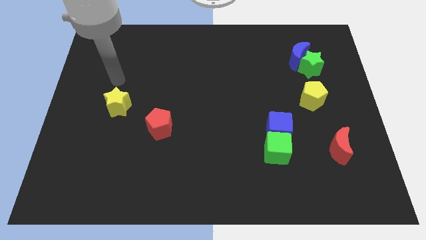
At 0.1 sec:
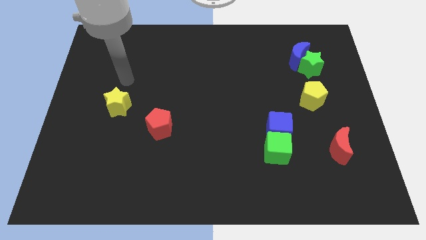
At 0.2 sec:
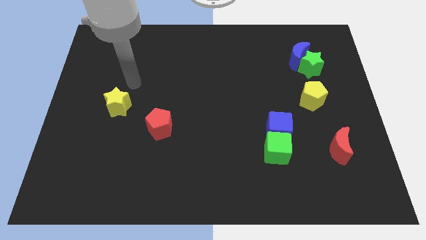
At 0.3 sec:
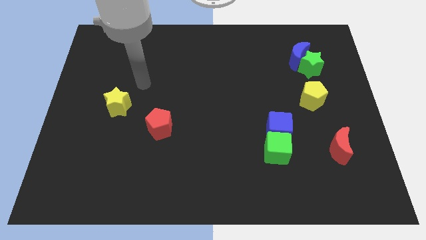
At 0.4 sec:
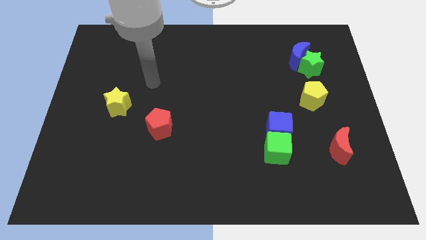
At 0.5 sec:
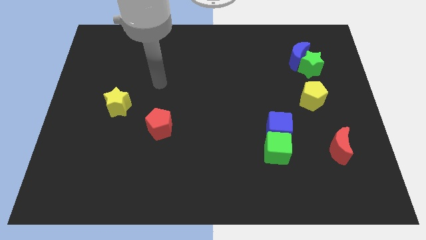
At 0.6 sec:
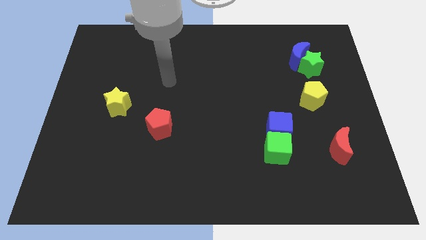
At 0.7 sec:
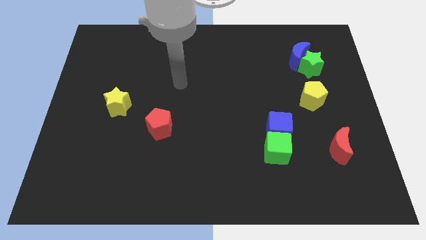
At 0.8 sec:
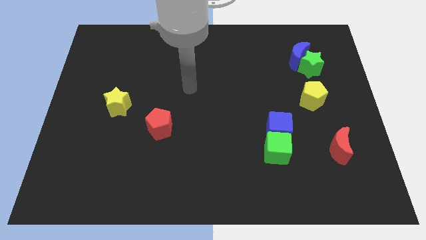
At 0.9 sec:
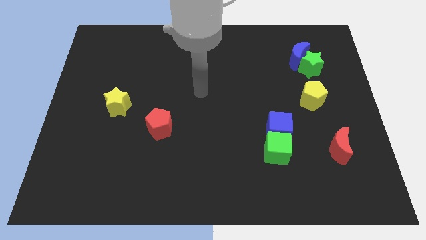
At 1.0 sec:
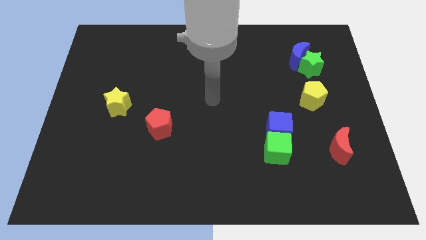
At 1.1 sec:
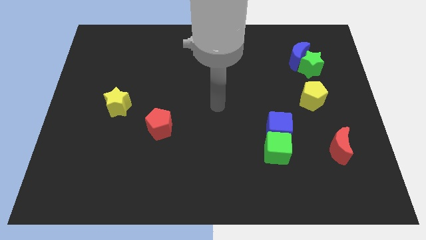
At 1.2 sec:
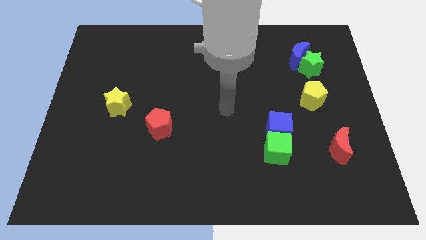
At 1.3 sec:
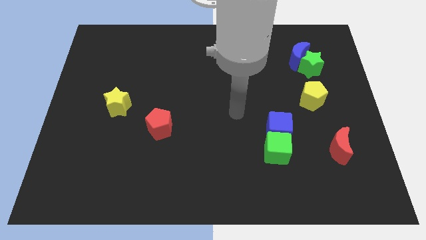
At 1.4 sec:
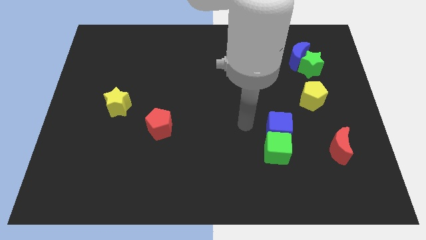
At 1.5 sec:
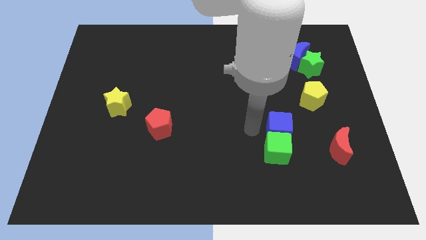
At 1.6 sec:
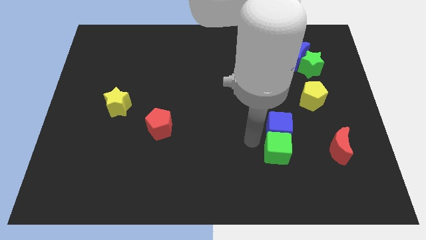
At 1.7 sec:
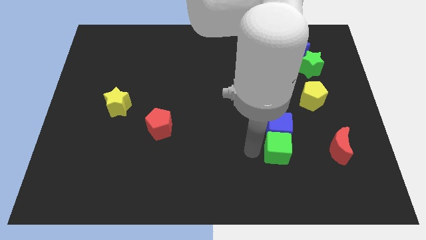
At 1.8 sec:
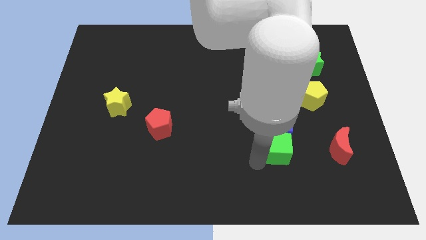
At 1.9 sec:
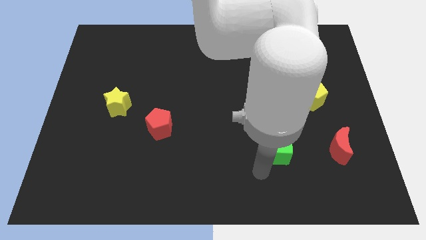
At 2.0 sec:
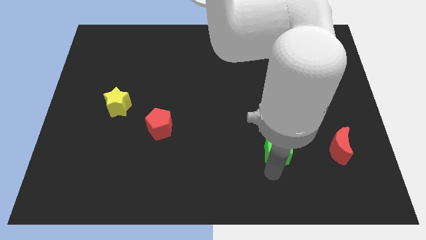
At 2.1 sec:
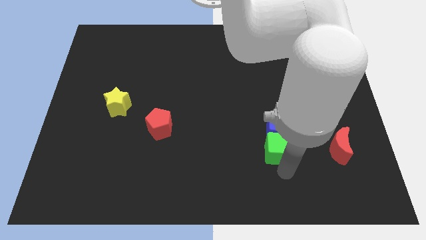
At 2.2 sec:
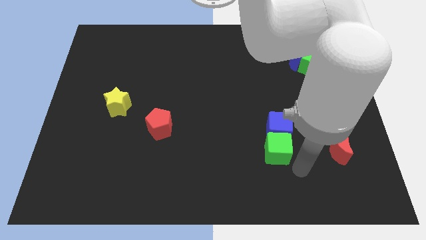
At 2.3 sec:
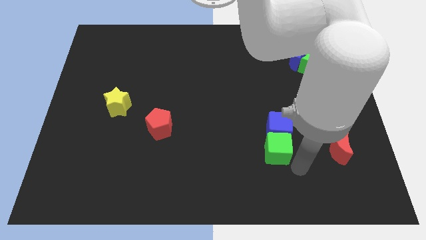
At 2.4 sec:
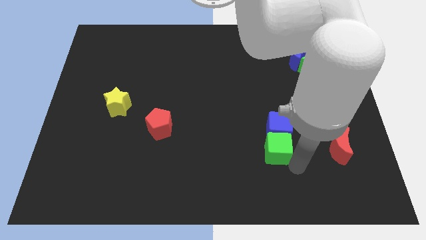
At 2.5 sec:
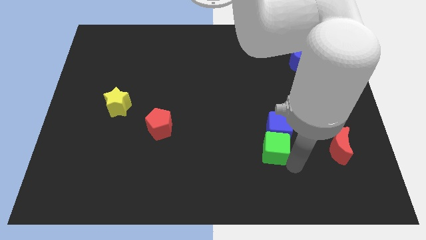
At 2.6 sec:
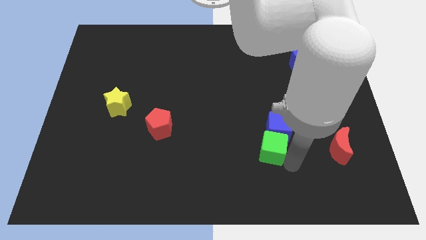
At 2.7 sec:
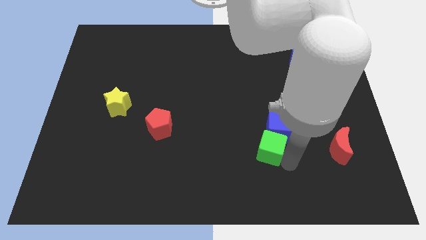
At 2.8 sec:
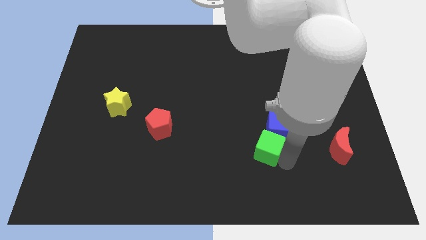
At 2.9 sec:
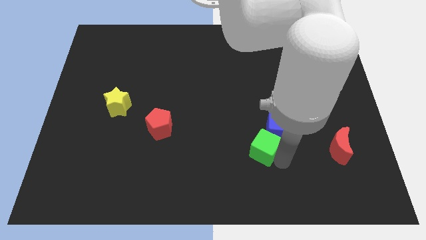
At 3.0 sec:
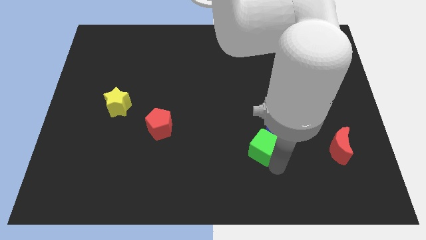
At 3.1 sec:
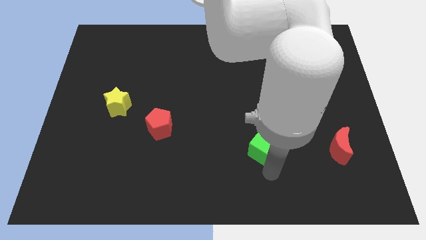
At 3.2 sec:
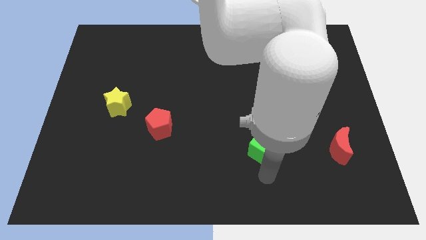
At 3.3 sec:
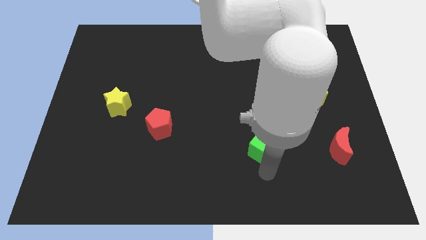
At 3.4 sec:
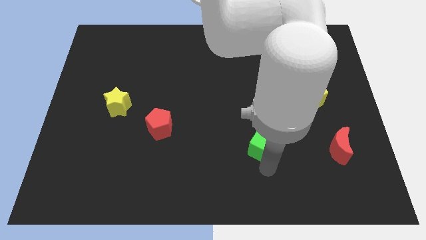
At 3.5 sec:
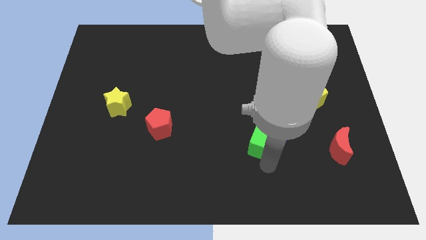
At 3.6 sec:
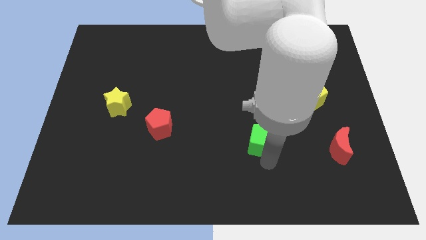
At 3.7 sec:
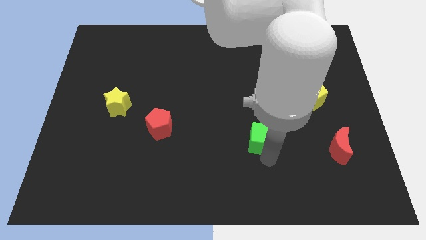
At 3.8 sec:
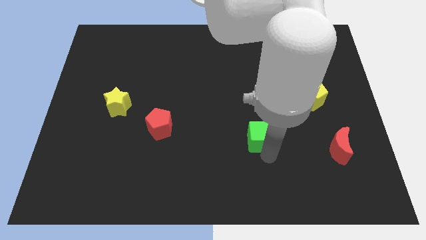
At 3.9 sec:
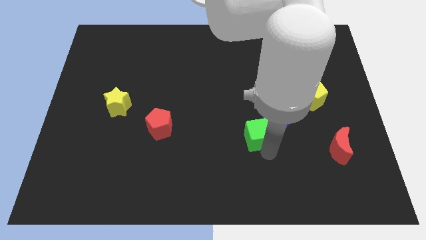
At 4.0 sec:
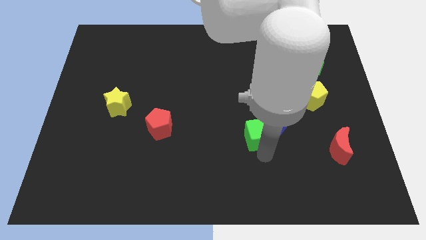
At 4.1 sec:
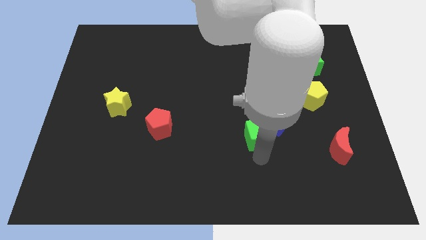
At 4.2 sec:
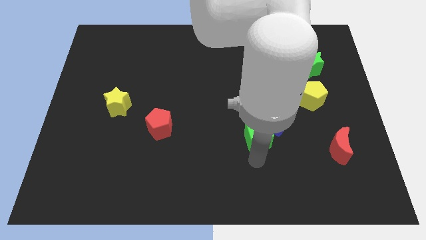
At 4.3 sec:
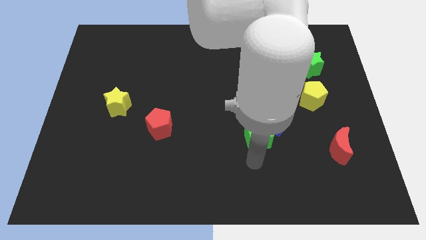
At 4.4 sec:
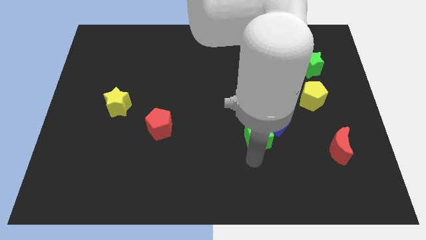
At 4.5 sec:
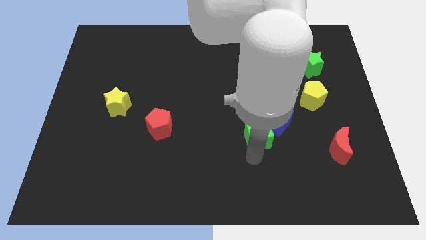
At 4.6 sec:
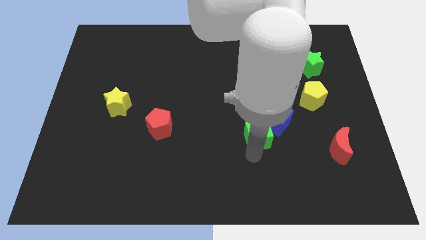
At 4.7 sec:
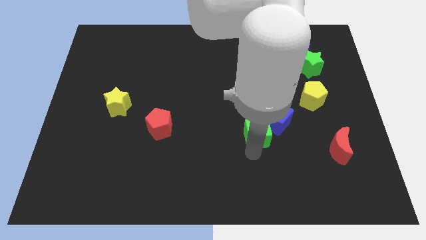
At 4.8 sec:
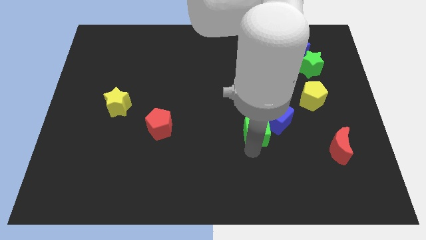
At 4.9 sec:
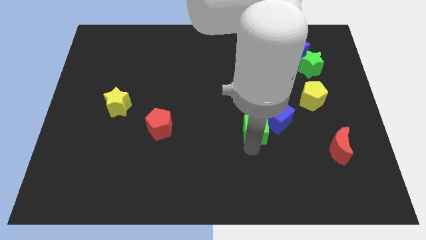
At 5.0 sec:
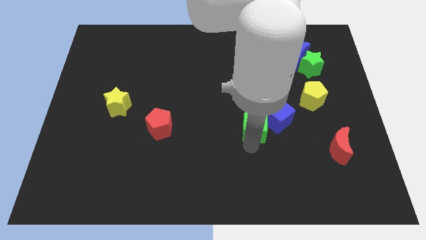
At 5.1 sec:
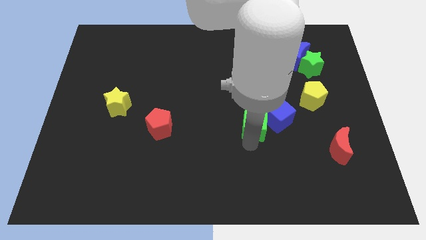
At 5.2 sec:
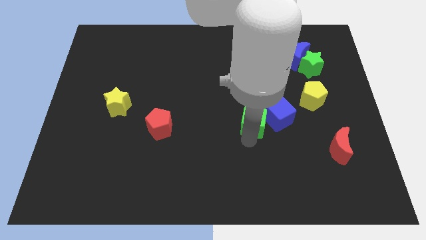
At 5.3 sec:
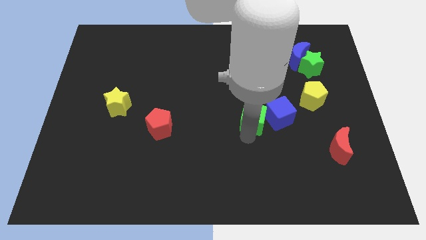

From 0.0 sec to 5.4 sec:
move the green cube up slightly

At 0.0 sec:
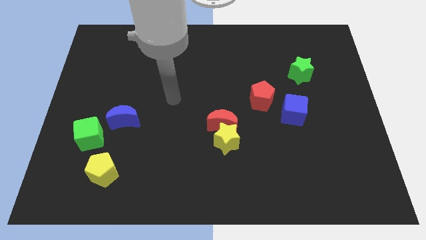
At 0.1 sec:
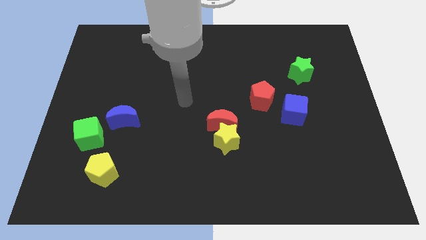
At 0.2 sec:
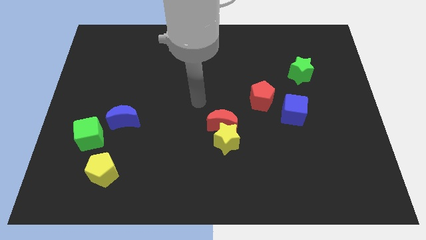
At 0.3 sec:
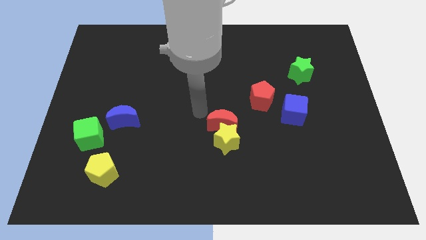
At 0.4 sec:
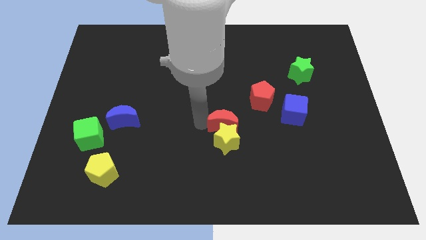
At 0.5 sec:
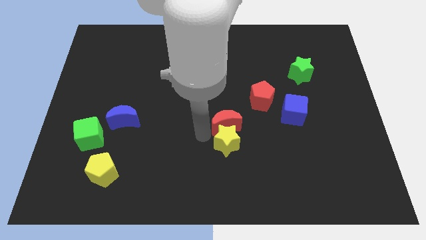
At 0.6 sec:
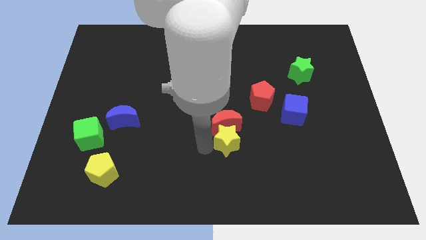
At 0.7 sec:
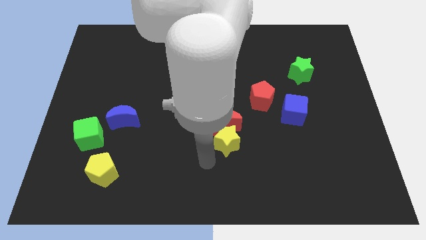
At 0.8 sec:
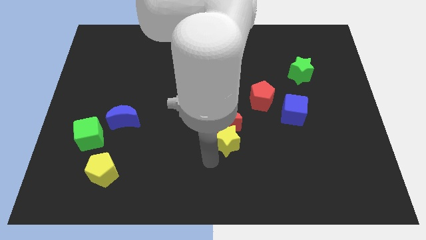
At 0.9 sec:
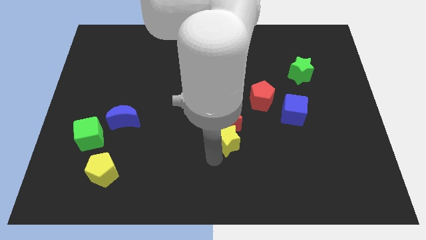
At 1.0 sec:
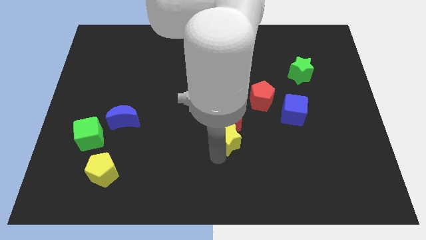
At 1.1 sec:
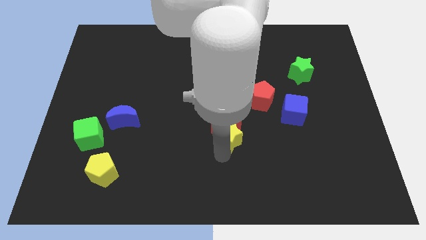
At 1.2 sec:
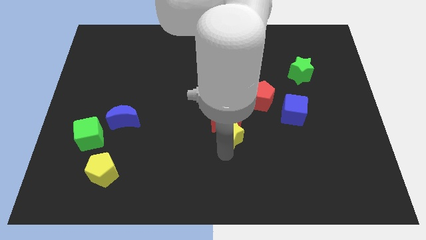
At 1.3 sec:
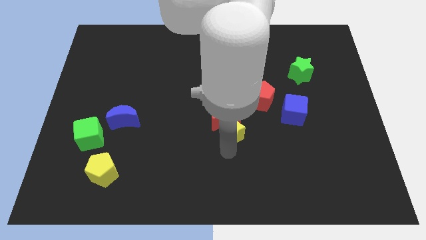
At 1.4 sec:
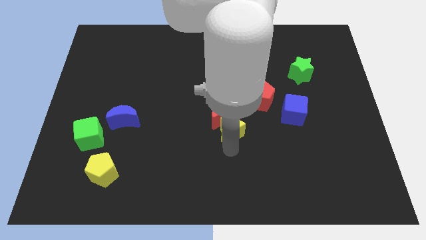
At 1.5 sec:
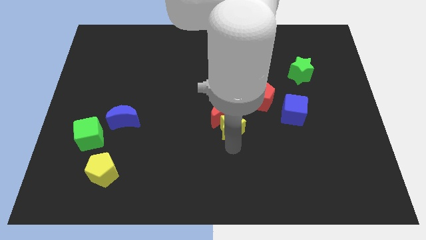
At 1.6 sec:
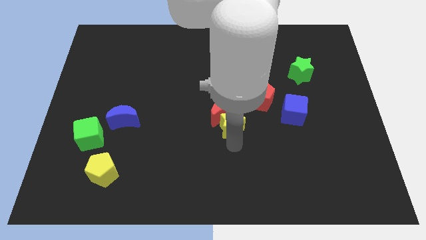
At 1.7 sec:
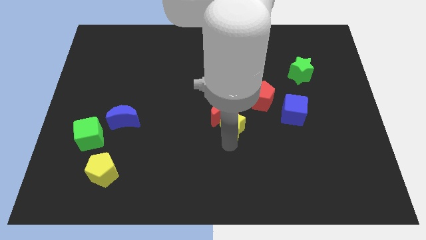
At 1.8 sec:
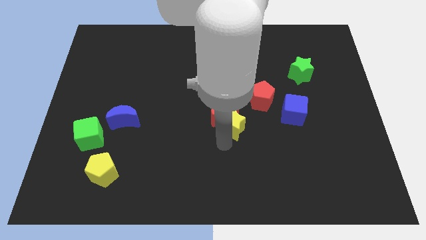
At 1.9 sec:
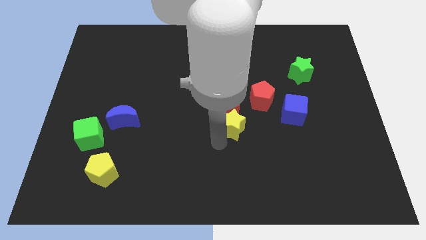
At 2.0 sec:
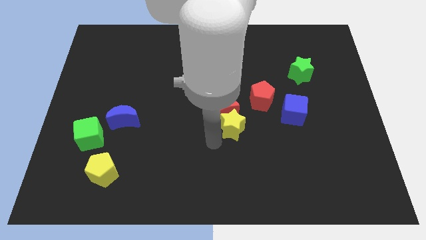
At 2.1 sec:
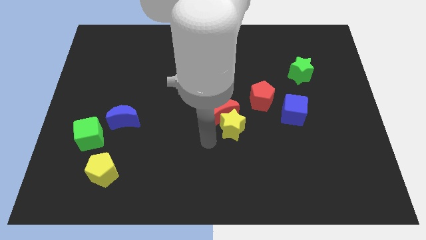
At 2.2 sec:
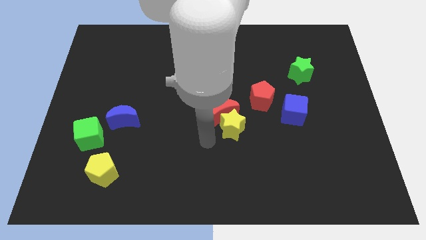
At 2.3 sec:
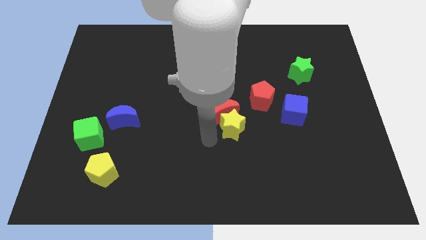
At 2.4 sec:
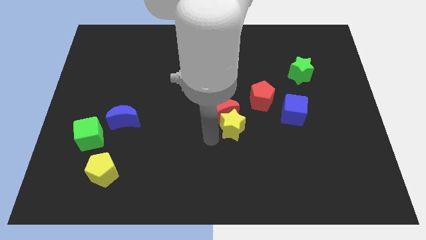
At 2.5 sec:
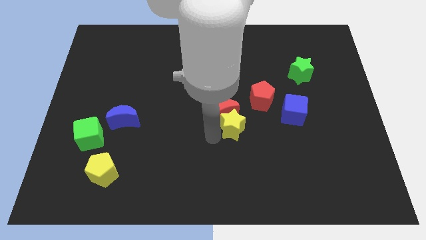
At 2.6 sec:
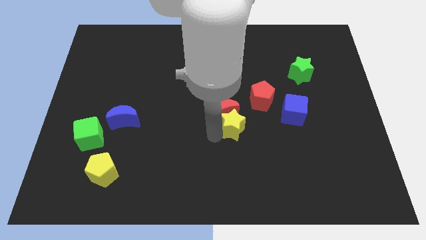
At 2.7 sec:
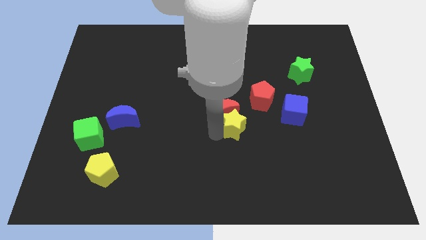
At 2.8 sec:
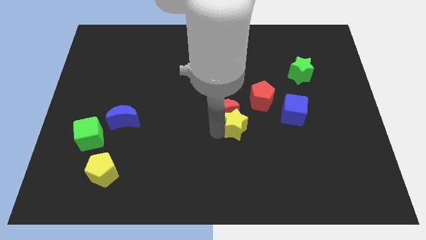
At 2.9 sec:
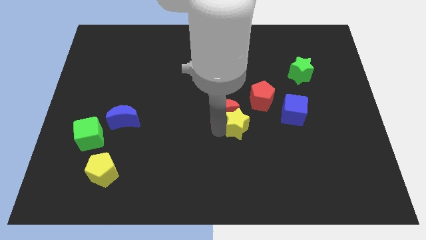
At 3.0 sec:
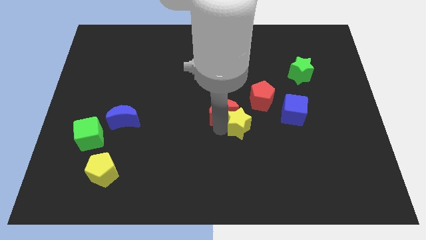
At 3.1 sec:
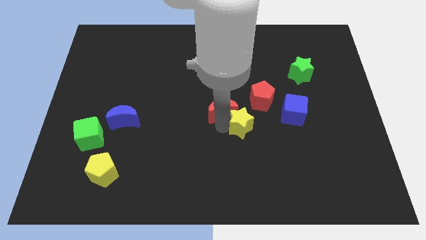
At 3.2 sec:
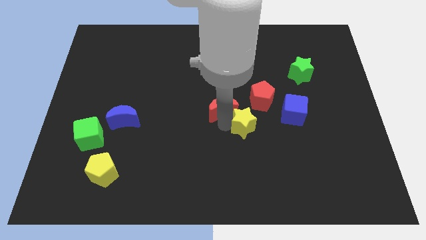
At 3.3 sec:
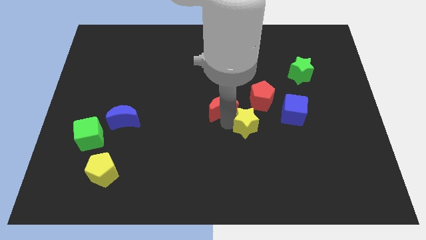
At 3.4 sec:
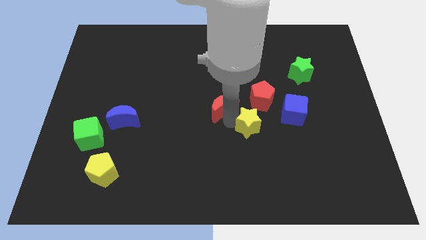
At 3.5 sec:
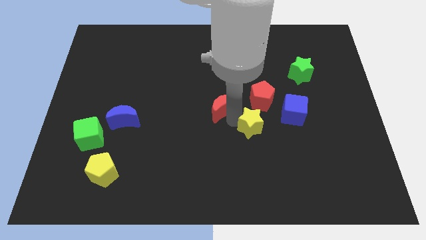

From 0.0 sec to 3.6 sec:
slightly push the yellow star up and then right
